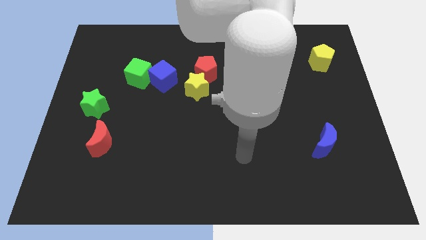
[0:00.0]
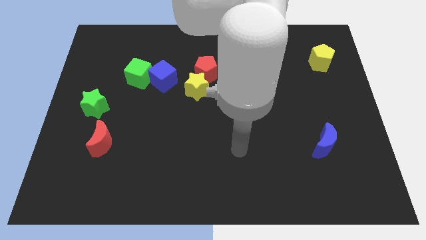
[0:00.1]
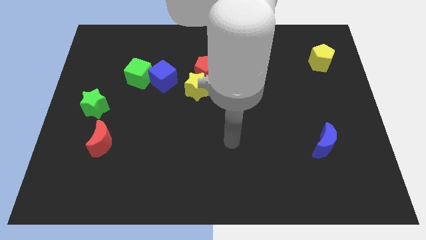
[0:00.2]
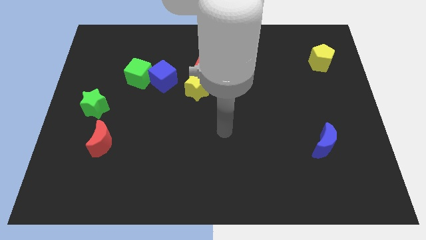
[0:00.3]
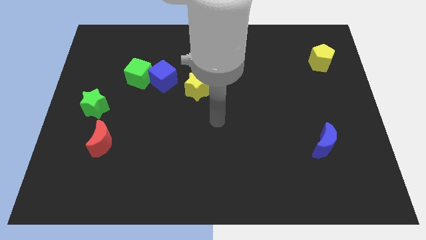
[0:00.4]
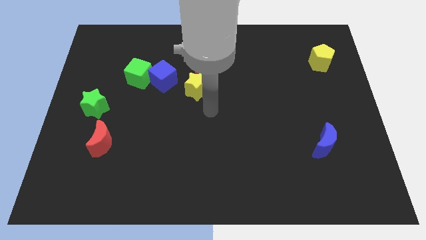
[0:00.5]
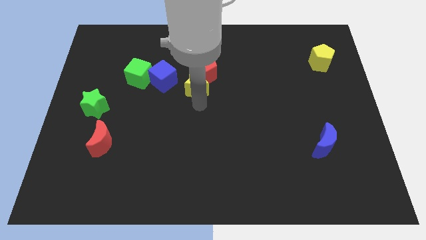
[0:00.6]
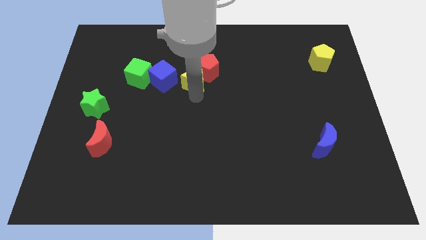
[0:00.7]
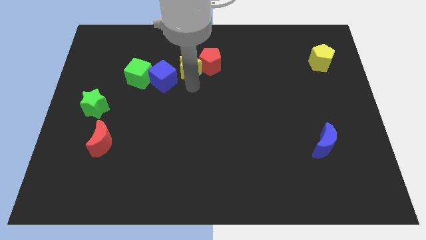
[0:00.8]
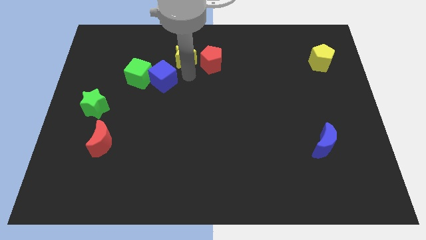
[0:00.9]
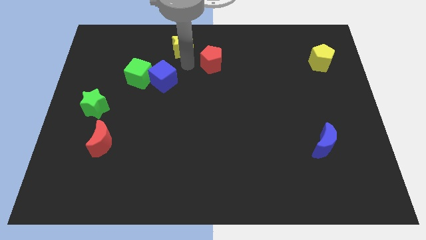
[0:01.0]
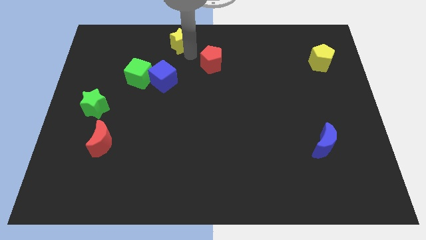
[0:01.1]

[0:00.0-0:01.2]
pull the red pentagon apart from the yellow star

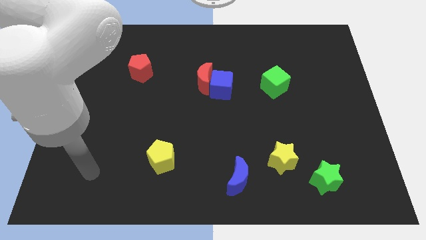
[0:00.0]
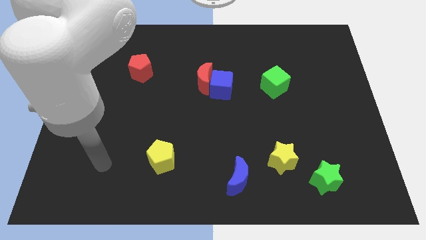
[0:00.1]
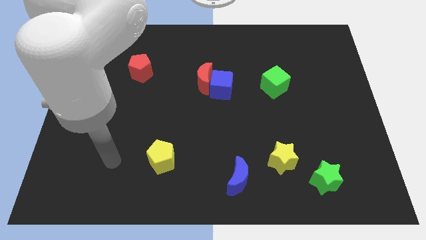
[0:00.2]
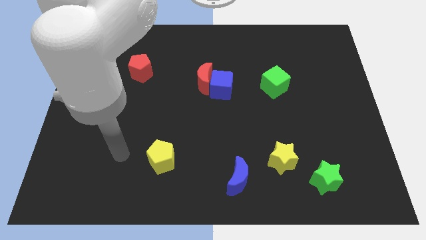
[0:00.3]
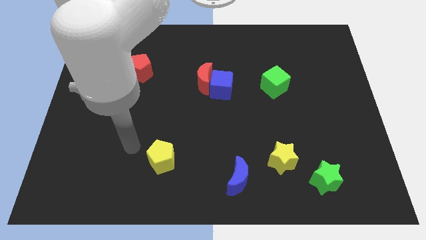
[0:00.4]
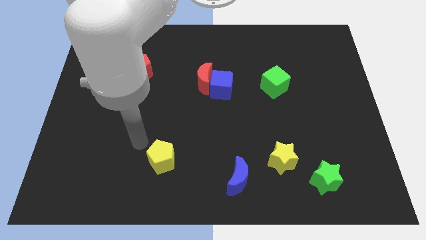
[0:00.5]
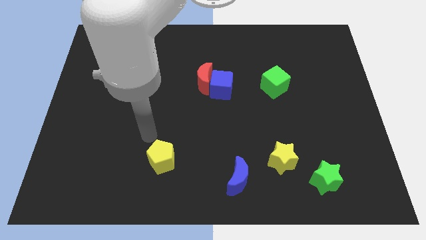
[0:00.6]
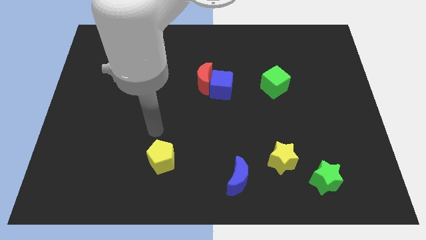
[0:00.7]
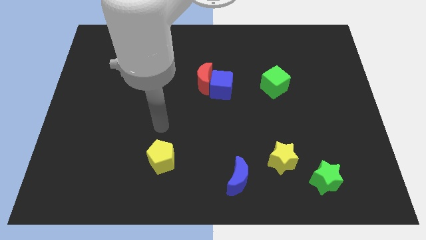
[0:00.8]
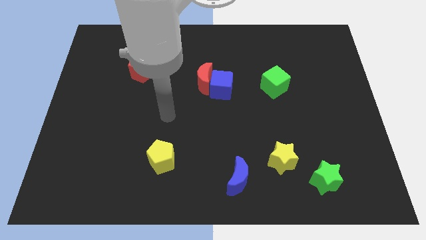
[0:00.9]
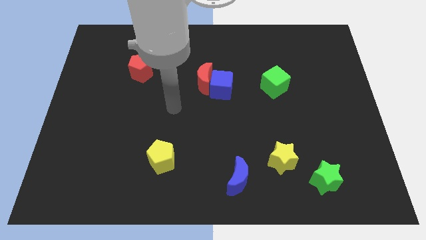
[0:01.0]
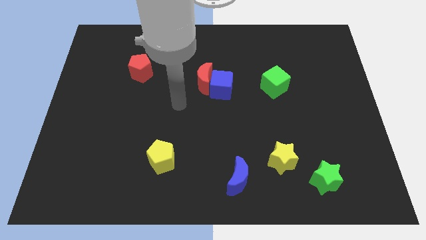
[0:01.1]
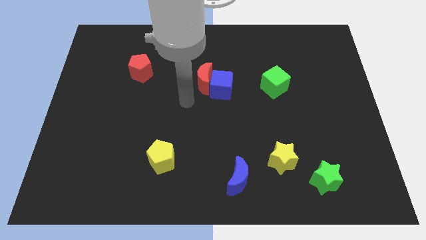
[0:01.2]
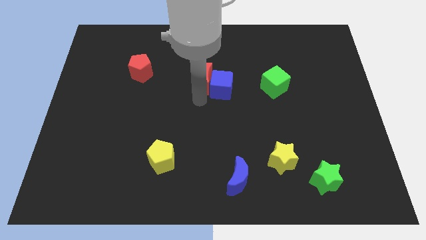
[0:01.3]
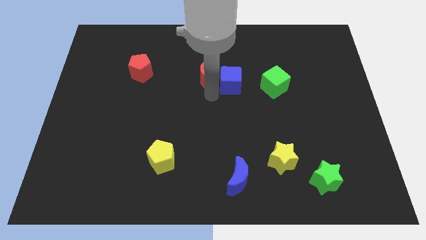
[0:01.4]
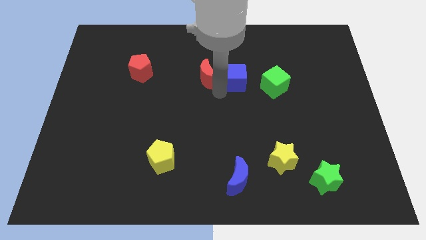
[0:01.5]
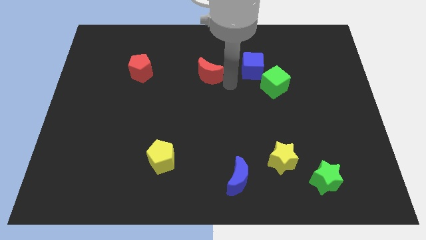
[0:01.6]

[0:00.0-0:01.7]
pull the red moon apart from the blue cube

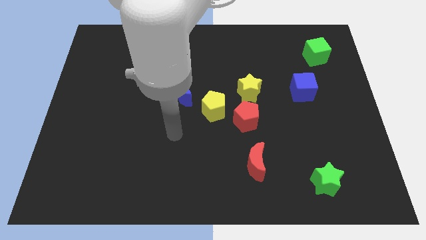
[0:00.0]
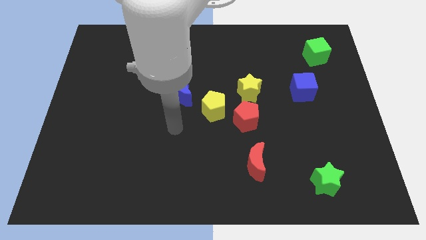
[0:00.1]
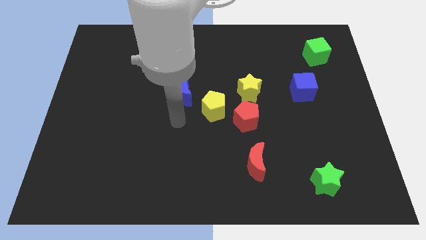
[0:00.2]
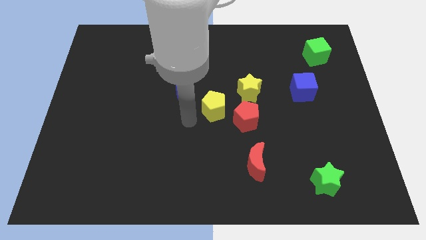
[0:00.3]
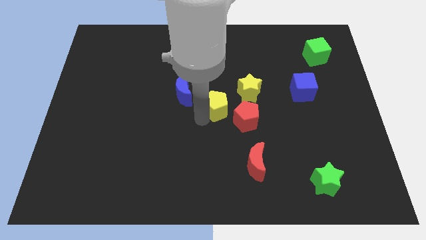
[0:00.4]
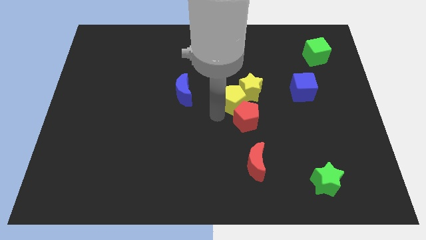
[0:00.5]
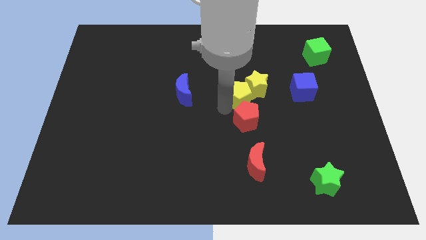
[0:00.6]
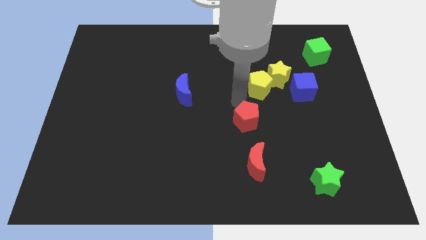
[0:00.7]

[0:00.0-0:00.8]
separate the red pentagon from the yellow pentagon and yellow star

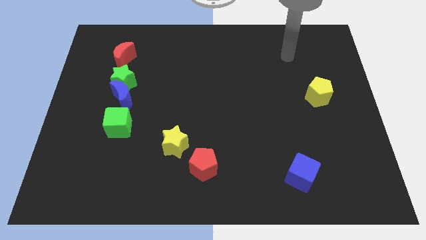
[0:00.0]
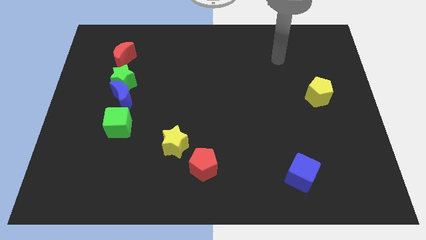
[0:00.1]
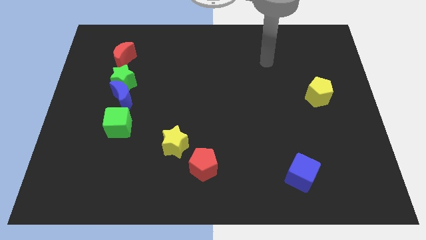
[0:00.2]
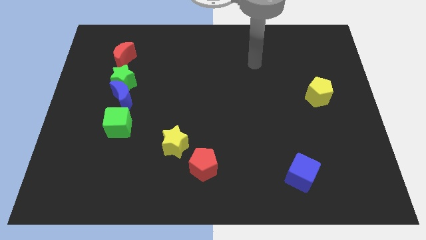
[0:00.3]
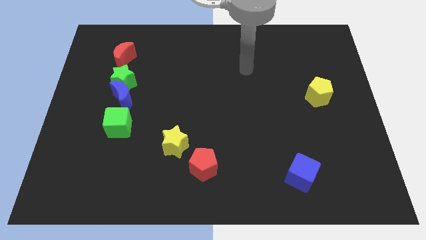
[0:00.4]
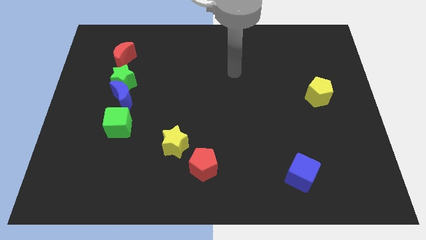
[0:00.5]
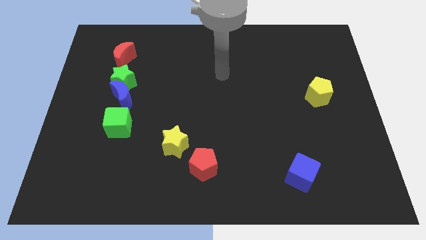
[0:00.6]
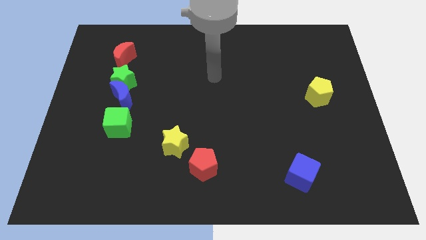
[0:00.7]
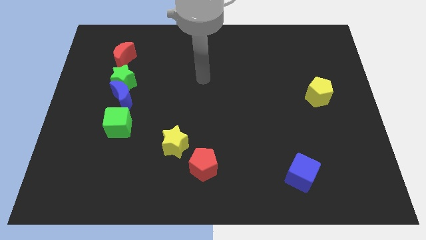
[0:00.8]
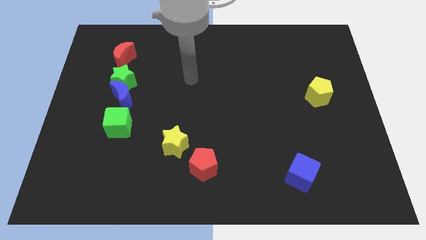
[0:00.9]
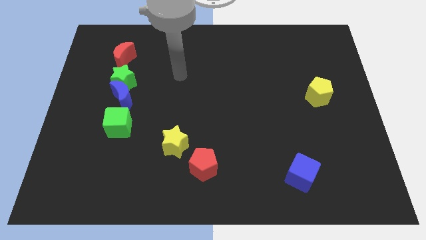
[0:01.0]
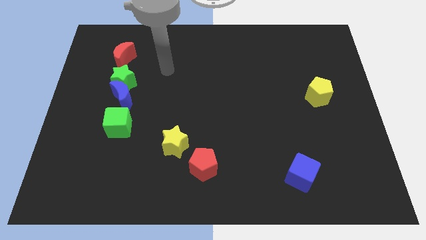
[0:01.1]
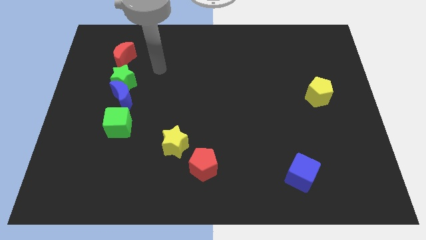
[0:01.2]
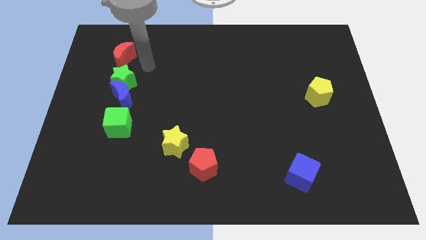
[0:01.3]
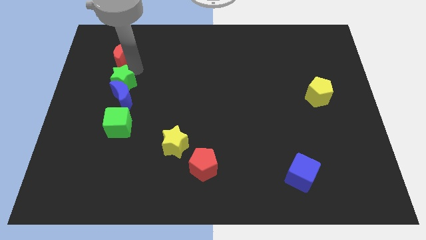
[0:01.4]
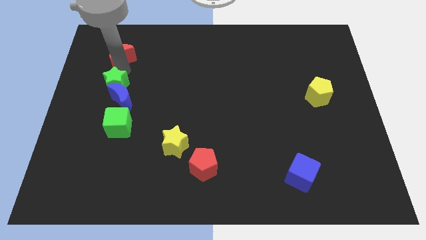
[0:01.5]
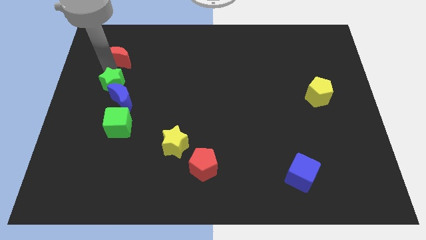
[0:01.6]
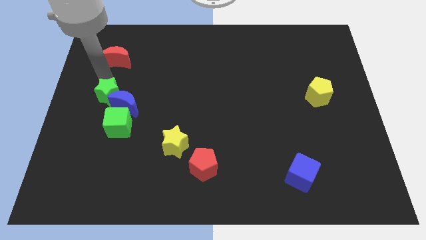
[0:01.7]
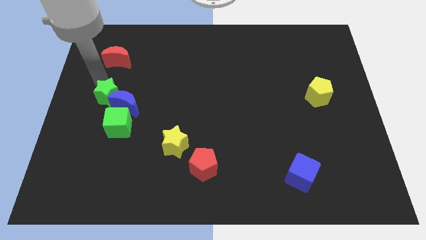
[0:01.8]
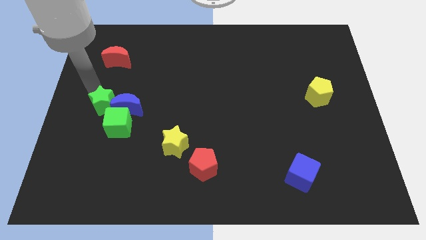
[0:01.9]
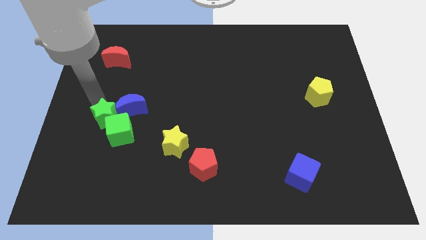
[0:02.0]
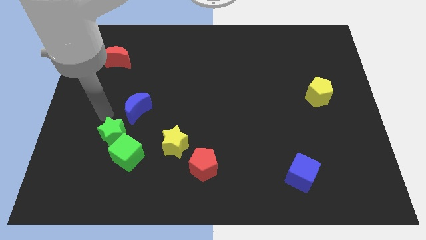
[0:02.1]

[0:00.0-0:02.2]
move the blue moon away from the green star and green cube

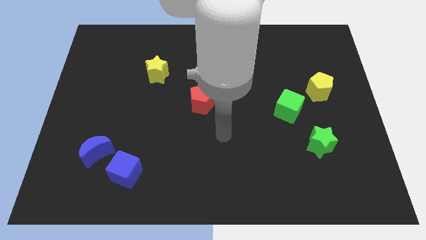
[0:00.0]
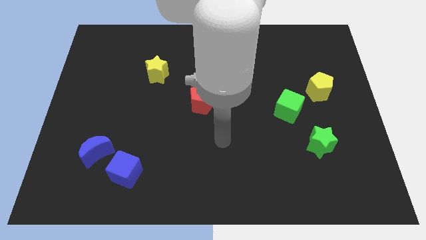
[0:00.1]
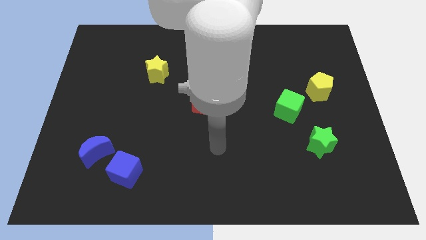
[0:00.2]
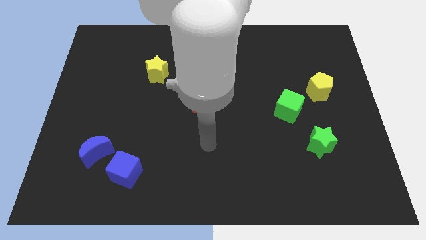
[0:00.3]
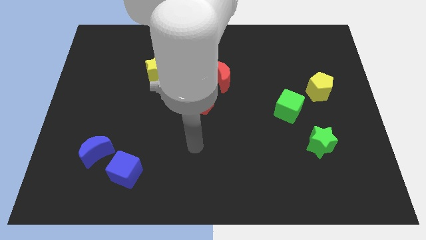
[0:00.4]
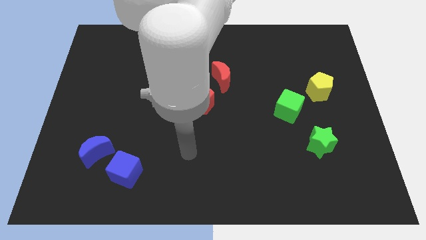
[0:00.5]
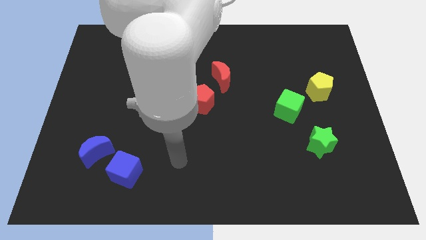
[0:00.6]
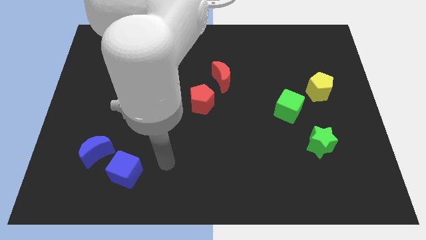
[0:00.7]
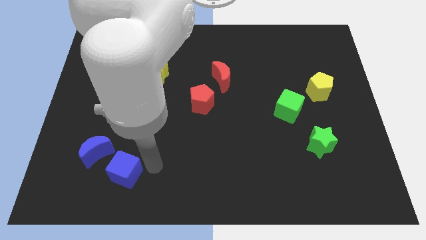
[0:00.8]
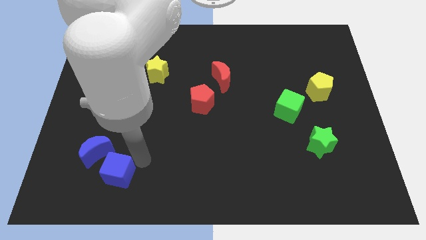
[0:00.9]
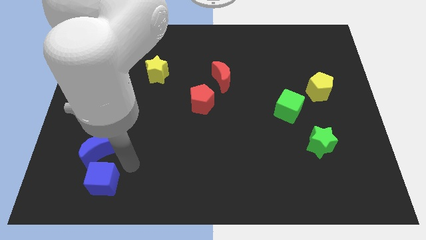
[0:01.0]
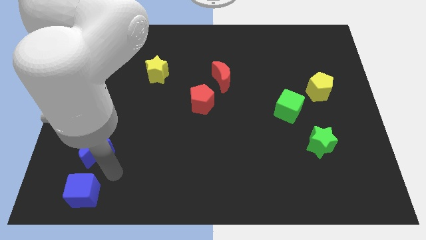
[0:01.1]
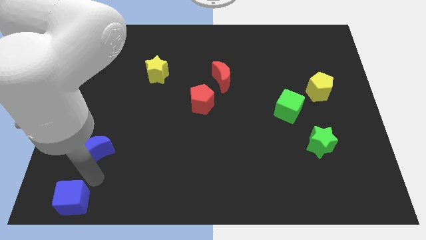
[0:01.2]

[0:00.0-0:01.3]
pull the blue moon apart from the blue cube

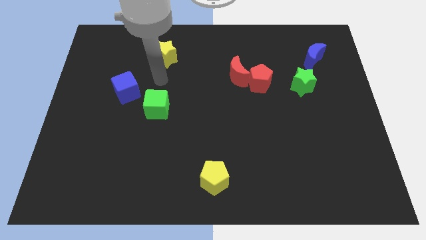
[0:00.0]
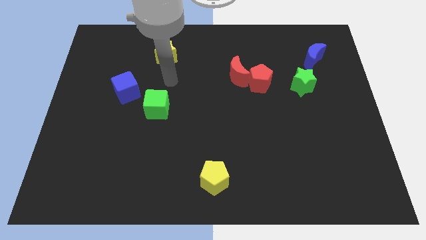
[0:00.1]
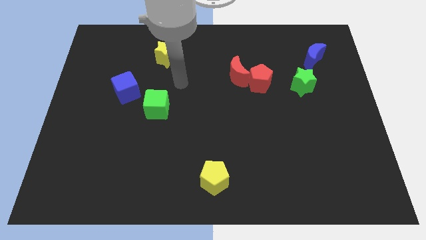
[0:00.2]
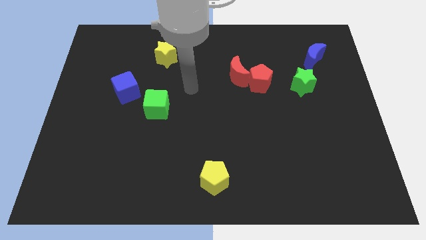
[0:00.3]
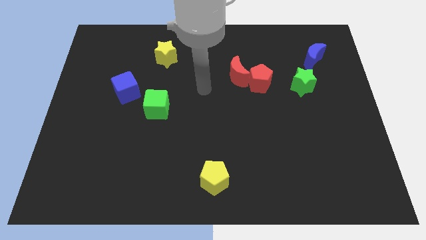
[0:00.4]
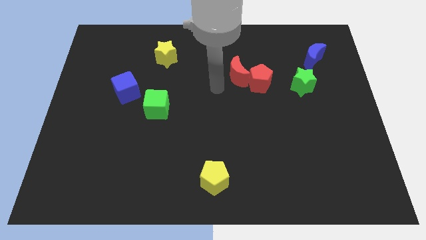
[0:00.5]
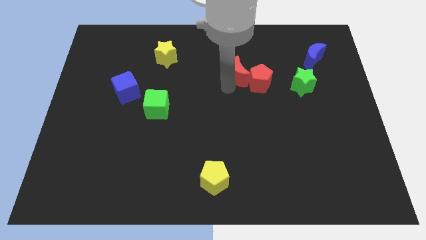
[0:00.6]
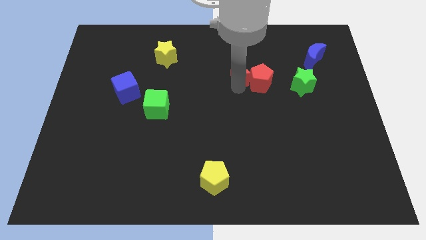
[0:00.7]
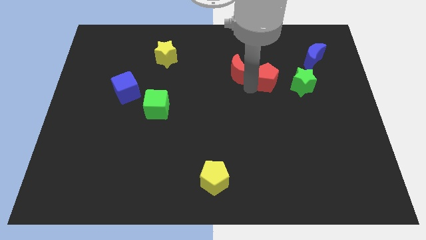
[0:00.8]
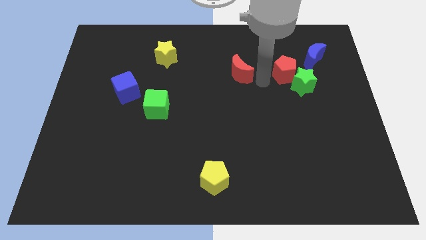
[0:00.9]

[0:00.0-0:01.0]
pull the red moon apart from the red pentagon

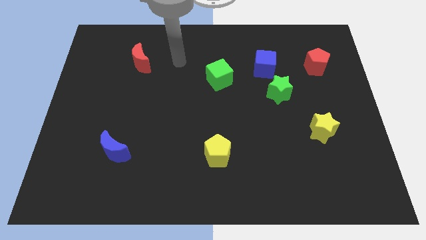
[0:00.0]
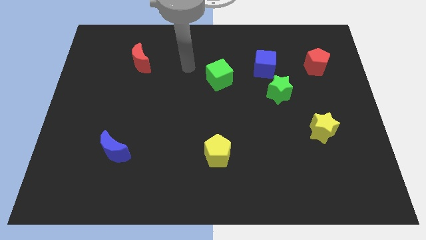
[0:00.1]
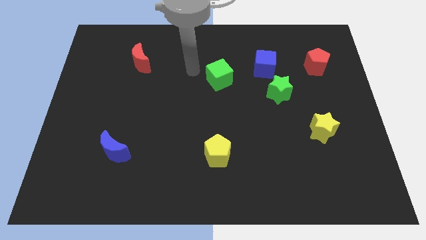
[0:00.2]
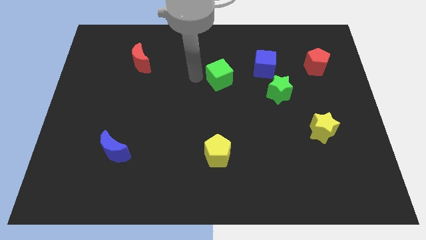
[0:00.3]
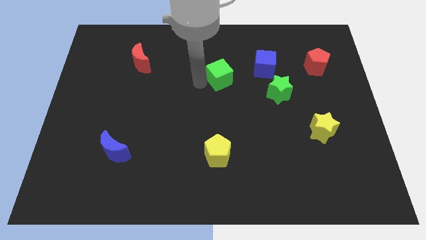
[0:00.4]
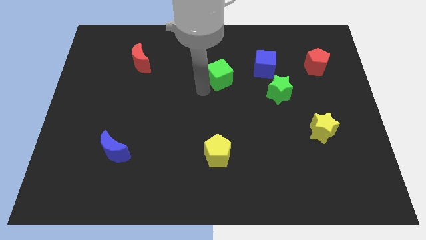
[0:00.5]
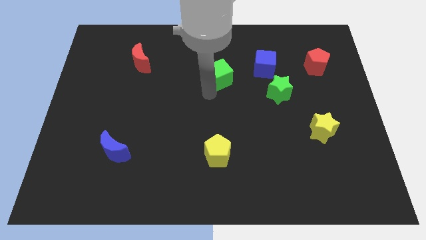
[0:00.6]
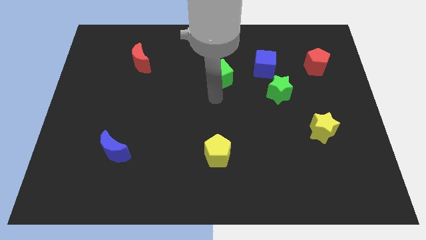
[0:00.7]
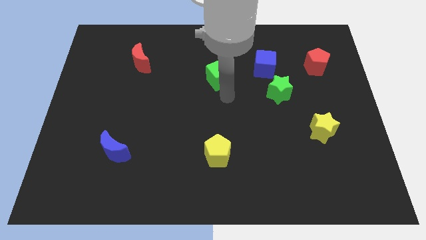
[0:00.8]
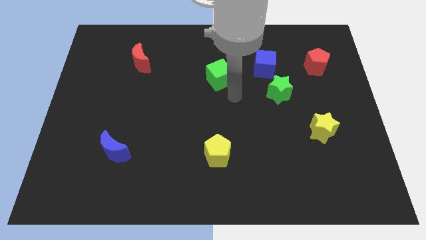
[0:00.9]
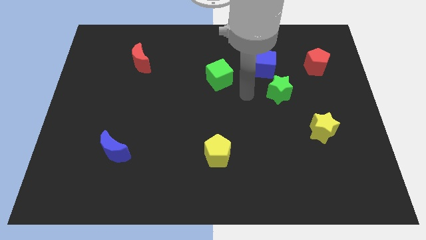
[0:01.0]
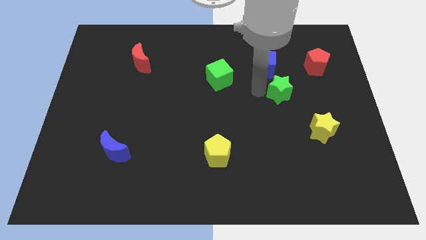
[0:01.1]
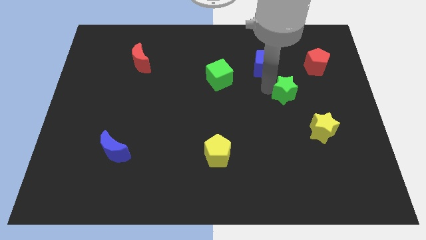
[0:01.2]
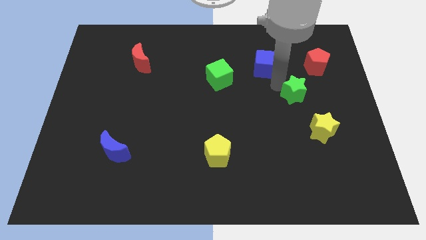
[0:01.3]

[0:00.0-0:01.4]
separate the blue cube from the green star
